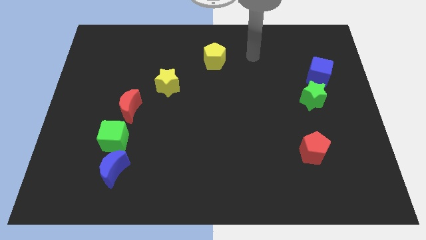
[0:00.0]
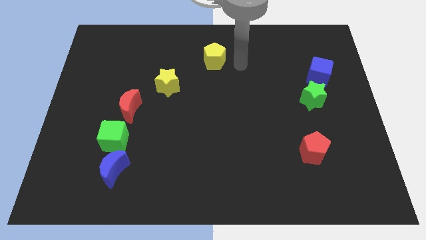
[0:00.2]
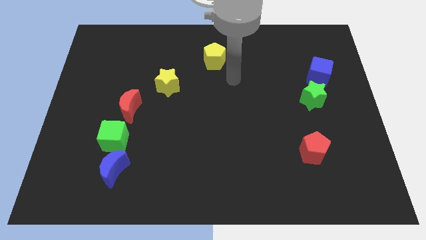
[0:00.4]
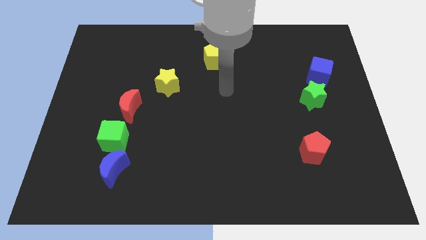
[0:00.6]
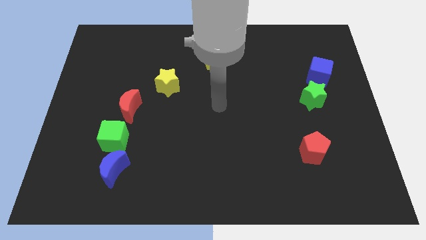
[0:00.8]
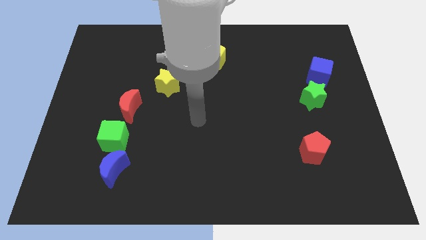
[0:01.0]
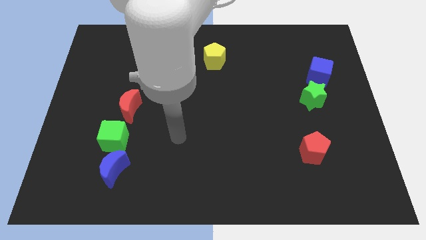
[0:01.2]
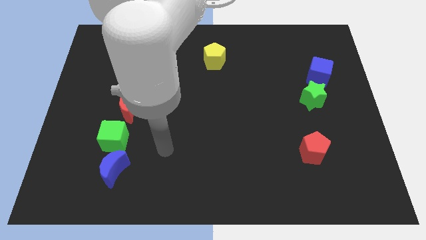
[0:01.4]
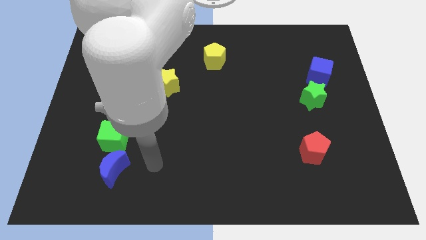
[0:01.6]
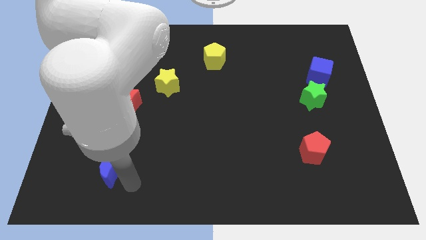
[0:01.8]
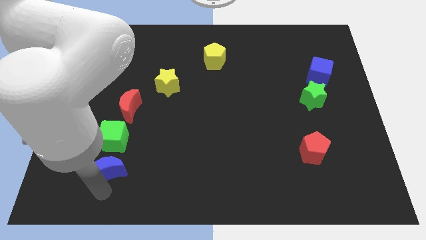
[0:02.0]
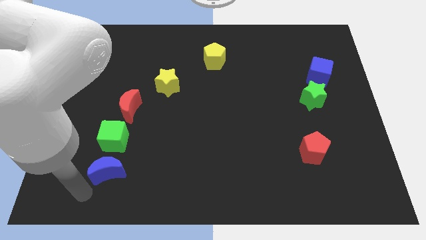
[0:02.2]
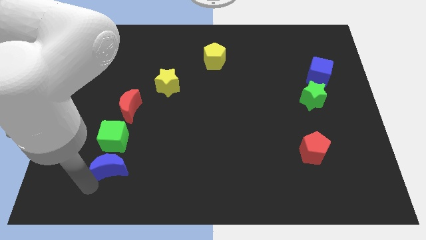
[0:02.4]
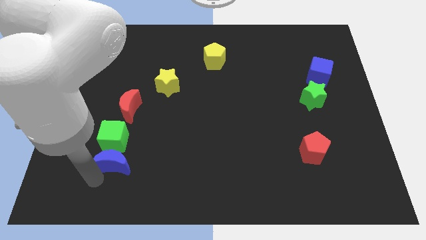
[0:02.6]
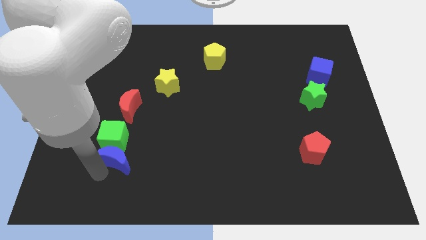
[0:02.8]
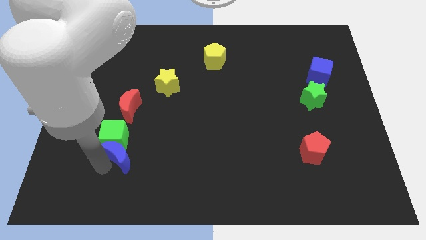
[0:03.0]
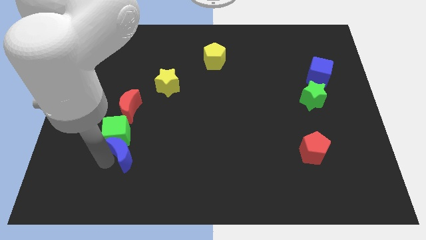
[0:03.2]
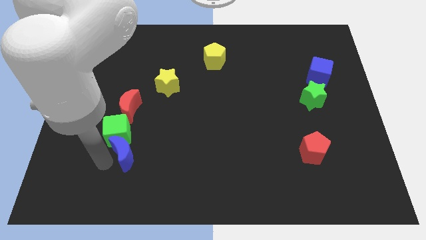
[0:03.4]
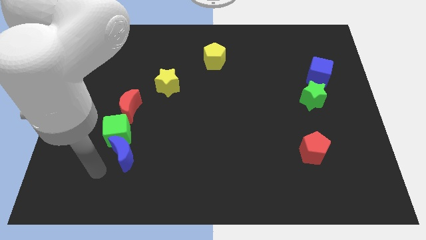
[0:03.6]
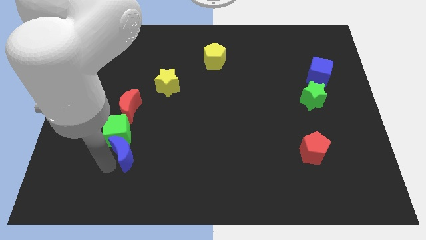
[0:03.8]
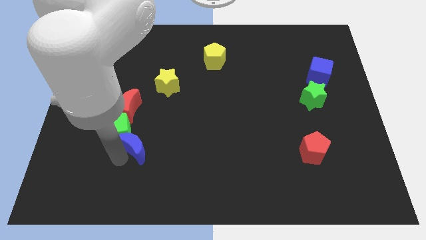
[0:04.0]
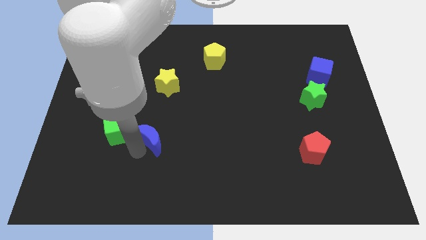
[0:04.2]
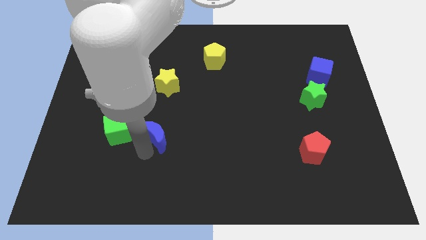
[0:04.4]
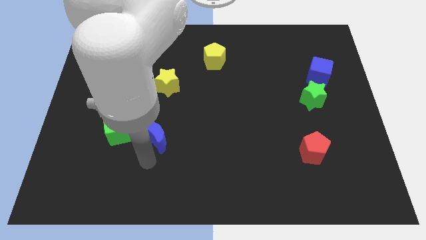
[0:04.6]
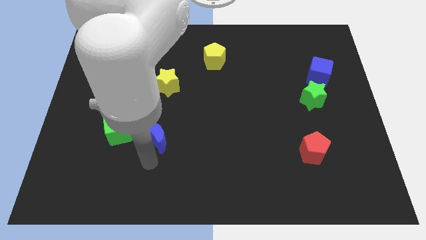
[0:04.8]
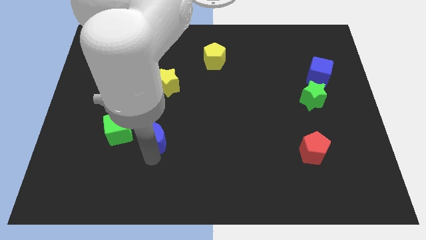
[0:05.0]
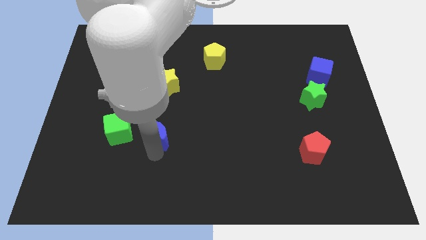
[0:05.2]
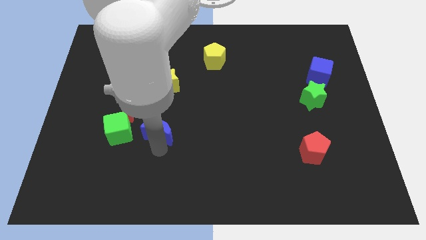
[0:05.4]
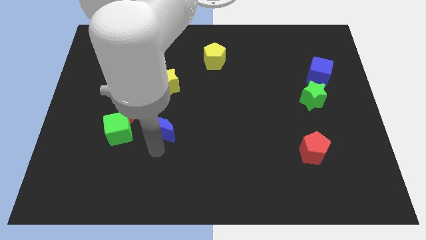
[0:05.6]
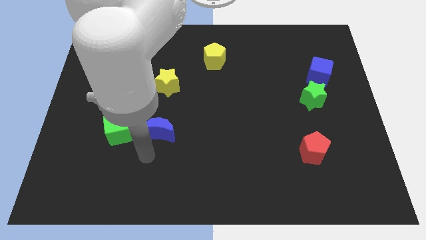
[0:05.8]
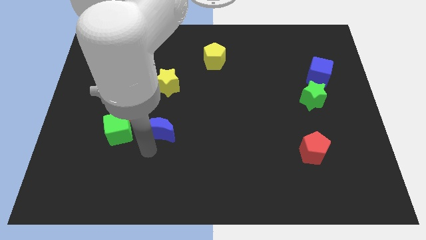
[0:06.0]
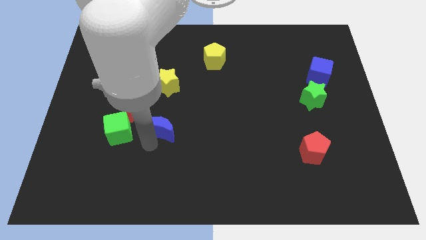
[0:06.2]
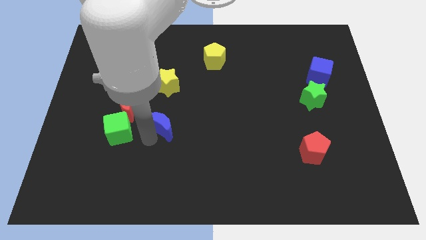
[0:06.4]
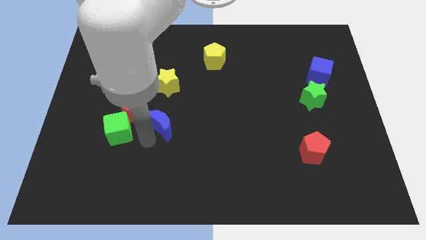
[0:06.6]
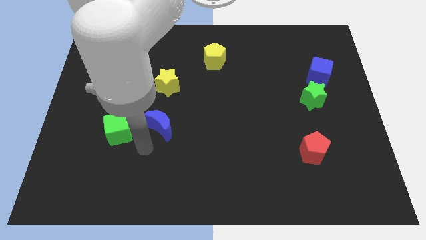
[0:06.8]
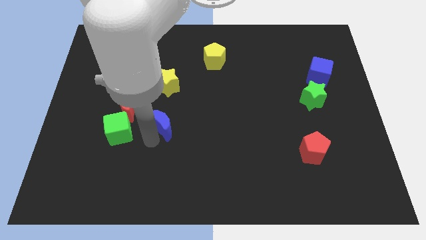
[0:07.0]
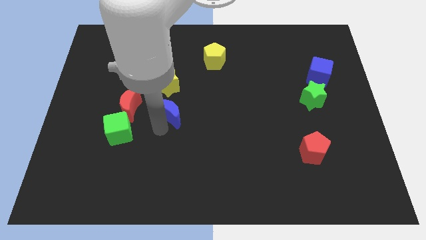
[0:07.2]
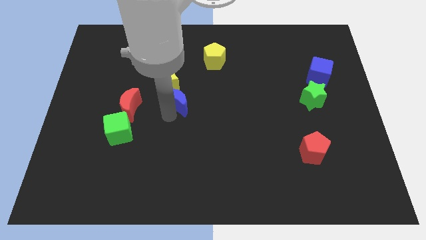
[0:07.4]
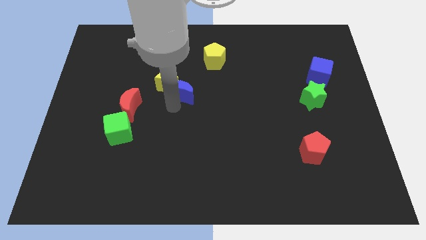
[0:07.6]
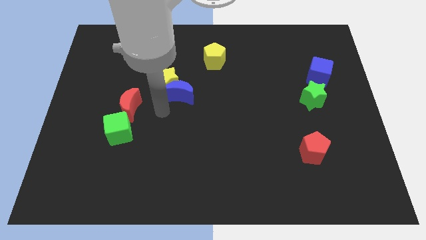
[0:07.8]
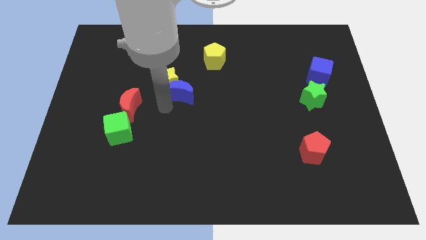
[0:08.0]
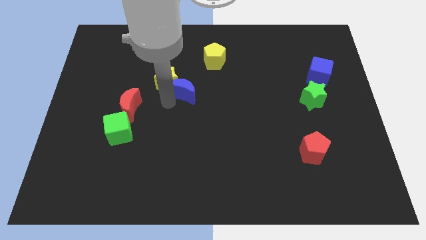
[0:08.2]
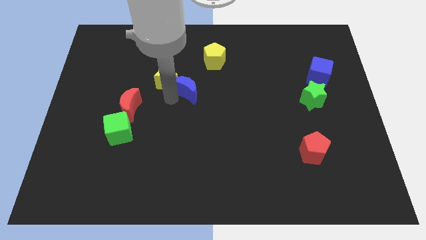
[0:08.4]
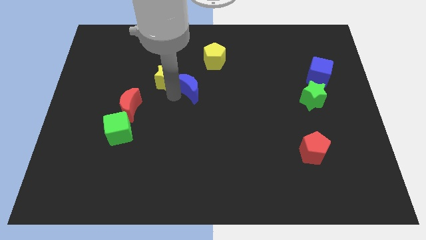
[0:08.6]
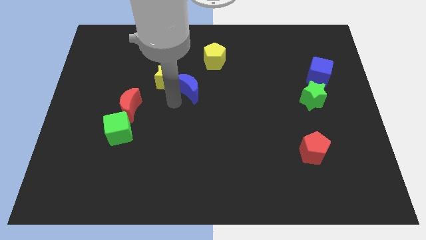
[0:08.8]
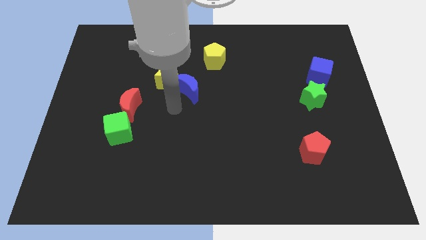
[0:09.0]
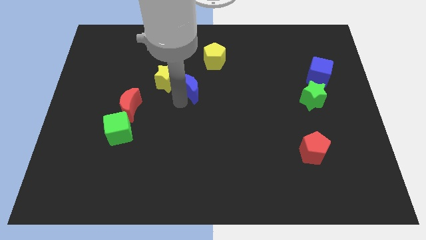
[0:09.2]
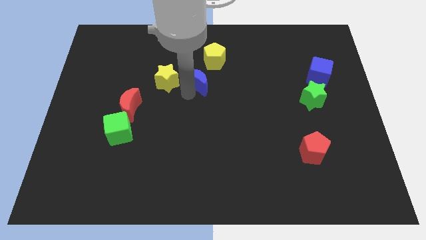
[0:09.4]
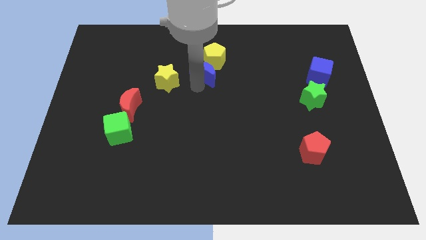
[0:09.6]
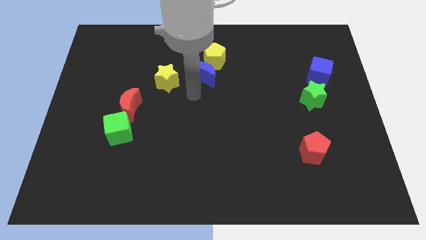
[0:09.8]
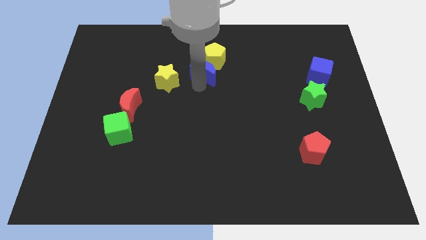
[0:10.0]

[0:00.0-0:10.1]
slide the blue moon towards the yellow pentagon

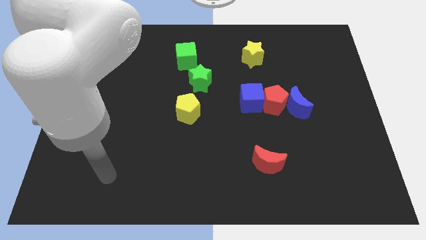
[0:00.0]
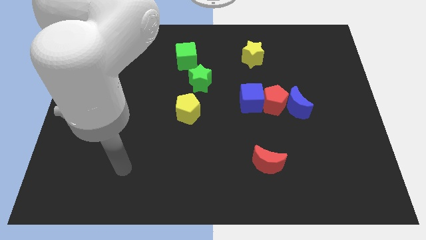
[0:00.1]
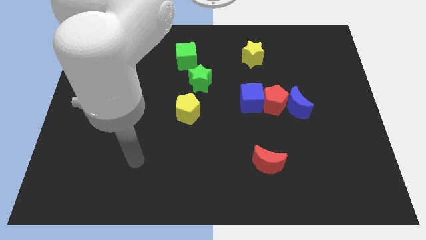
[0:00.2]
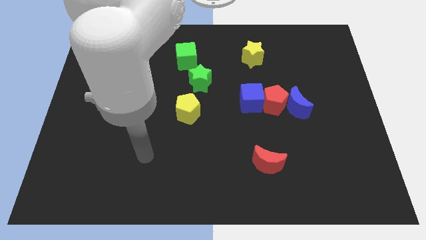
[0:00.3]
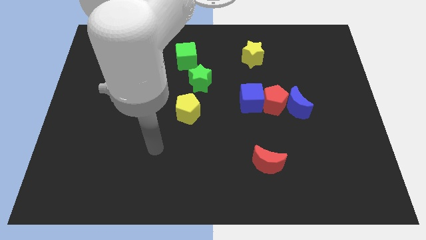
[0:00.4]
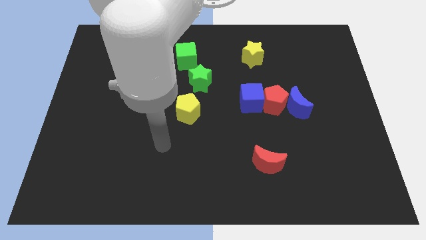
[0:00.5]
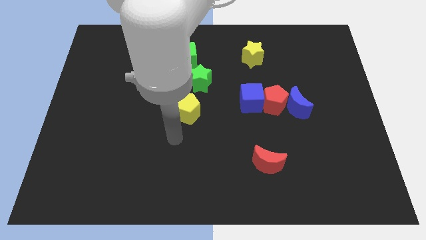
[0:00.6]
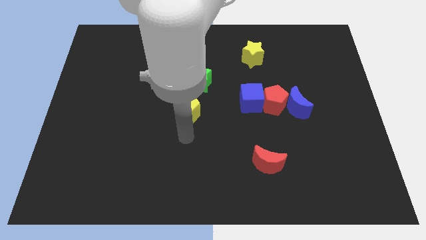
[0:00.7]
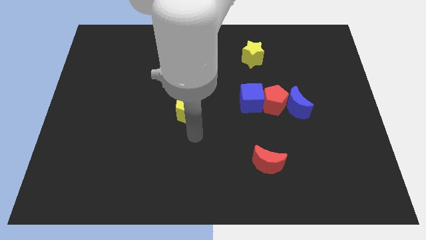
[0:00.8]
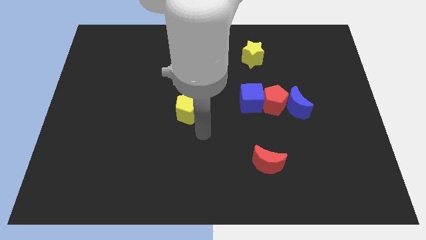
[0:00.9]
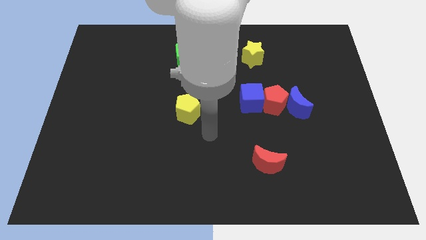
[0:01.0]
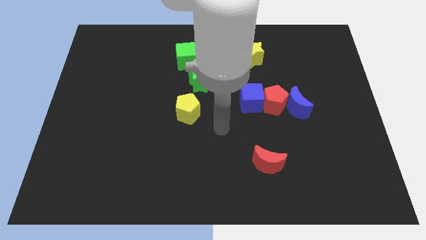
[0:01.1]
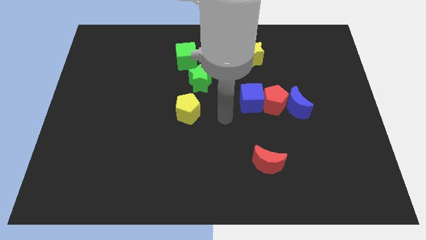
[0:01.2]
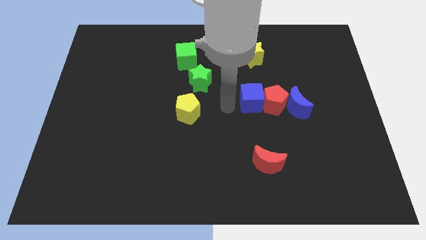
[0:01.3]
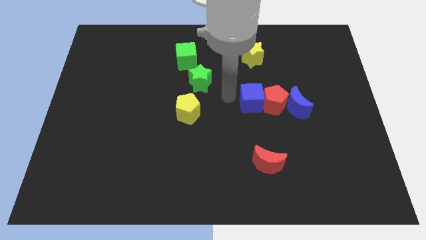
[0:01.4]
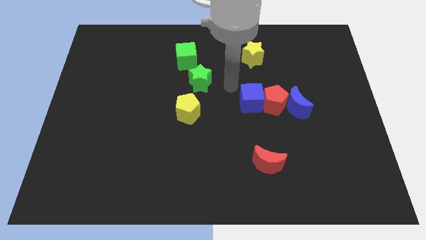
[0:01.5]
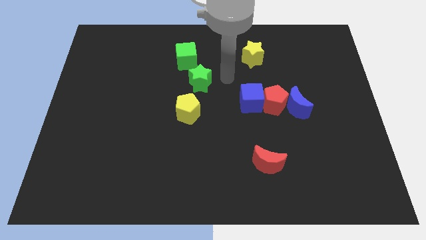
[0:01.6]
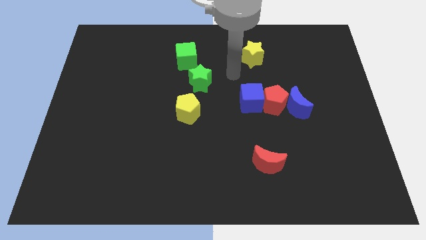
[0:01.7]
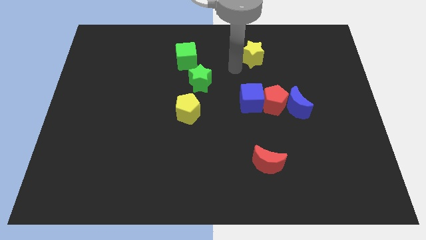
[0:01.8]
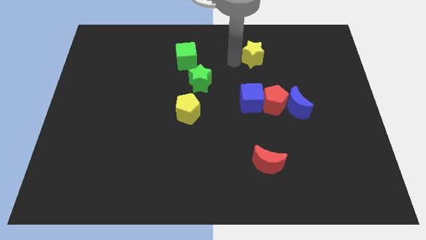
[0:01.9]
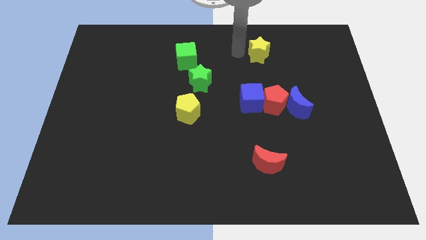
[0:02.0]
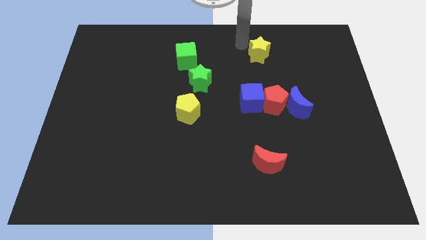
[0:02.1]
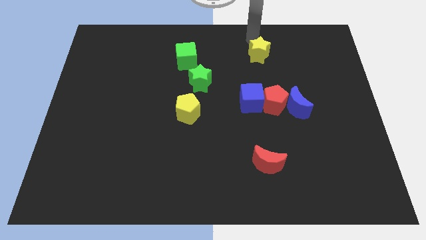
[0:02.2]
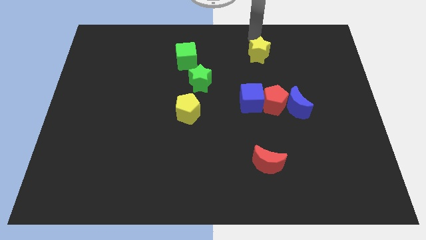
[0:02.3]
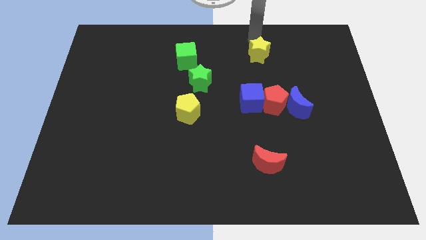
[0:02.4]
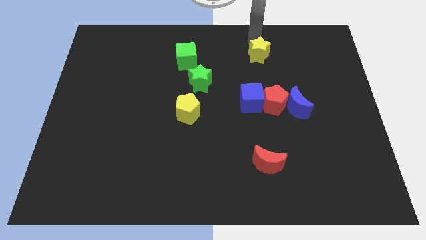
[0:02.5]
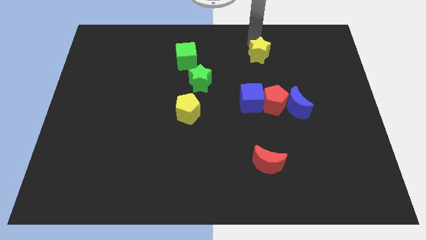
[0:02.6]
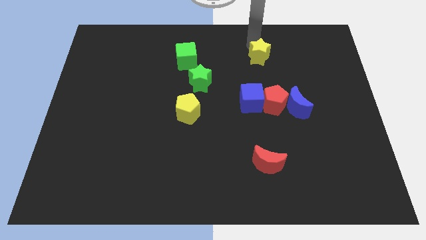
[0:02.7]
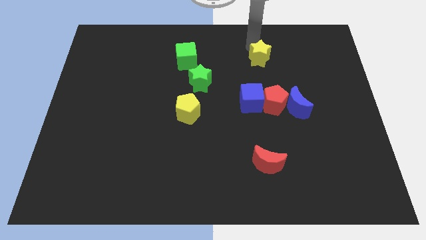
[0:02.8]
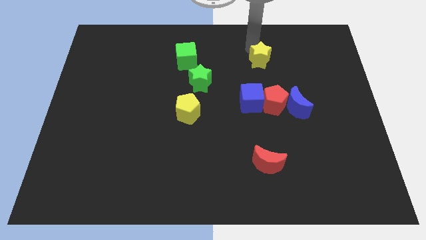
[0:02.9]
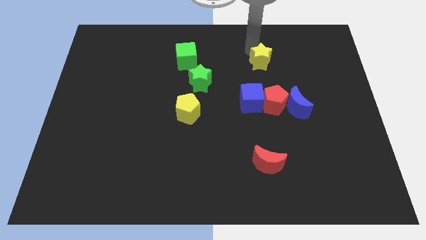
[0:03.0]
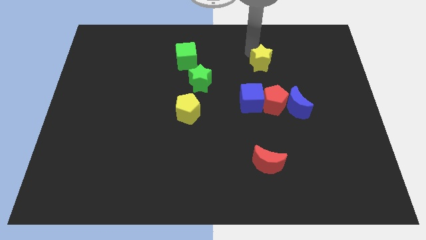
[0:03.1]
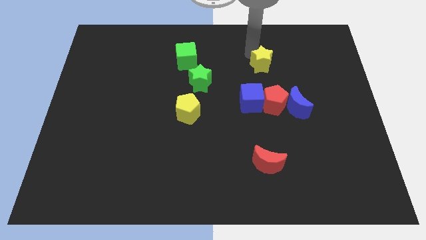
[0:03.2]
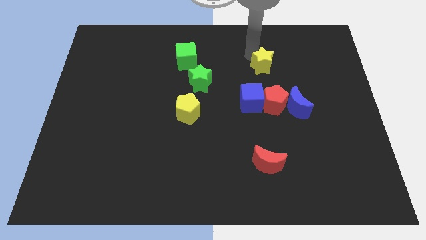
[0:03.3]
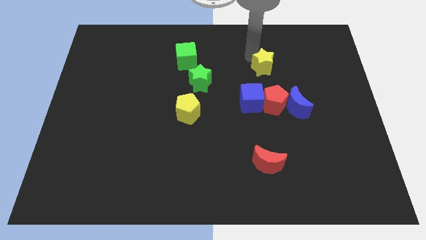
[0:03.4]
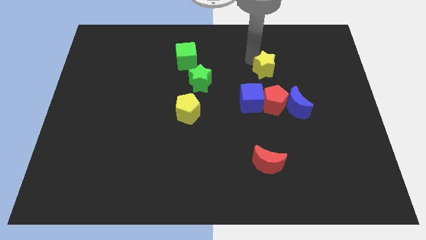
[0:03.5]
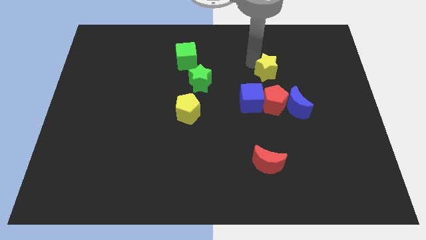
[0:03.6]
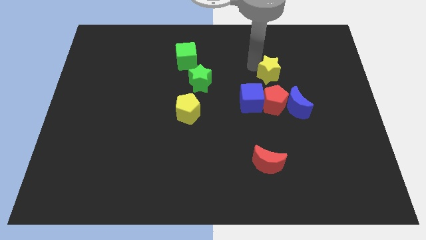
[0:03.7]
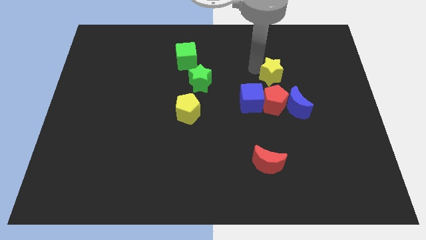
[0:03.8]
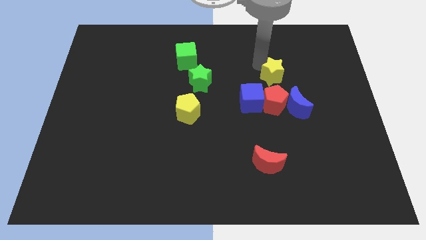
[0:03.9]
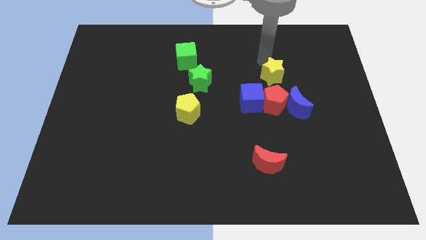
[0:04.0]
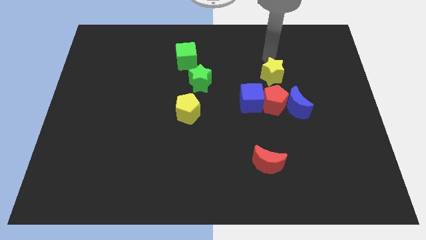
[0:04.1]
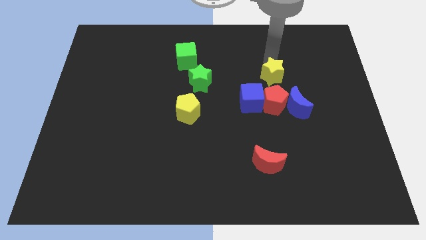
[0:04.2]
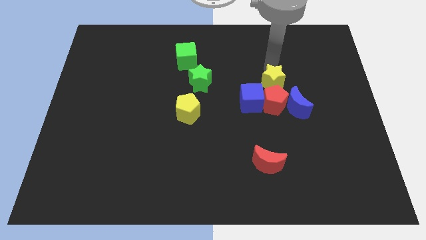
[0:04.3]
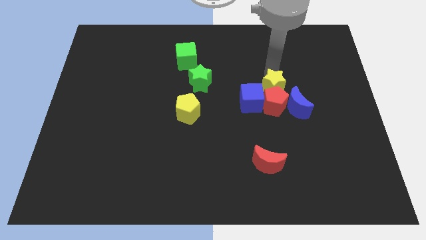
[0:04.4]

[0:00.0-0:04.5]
slide the yellow star next to the red pentagon
